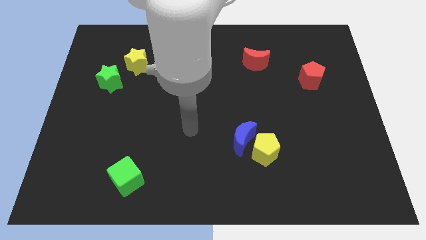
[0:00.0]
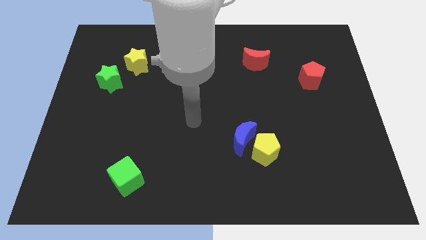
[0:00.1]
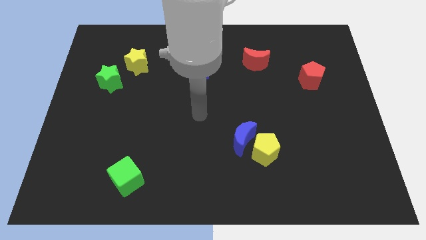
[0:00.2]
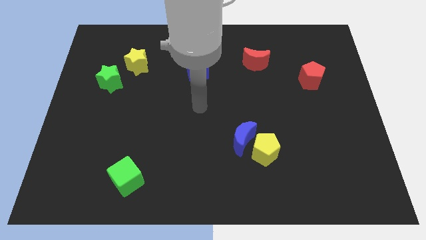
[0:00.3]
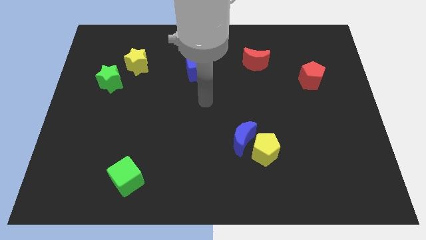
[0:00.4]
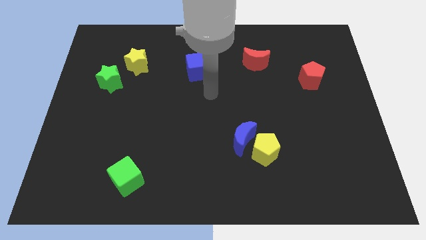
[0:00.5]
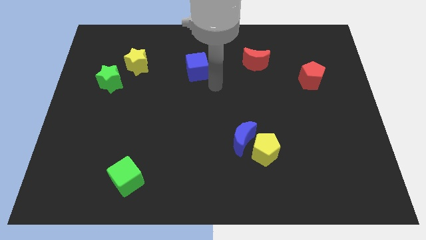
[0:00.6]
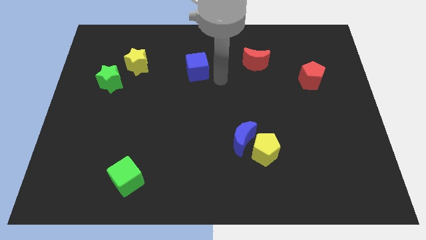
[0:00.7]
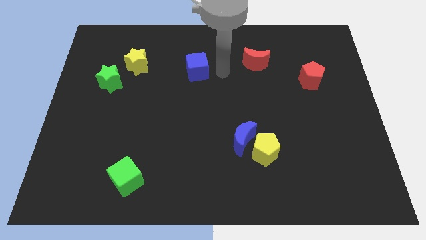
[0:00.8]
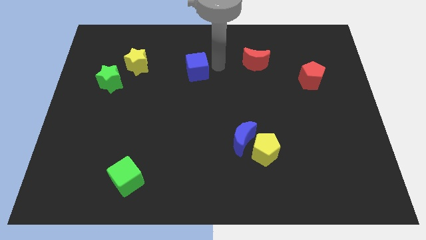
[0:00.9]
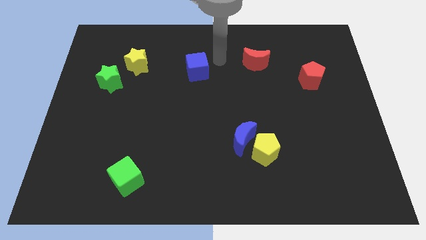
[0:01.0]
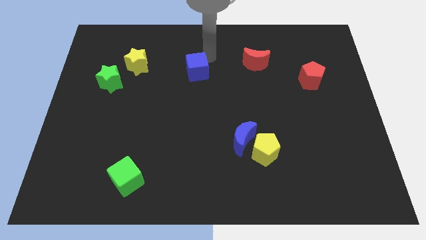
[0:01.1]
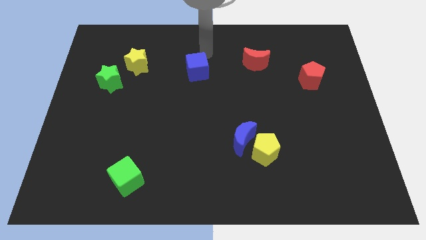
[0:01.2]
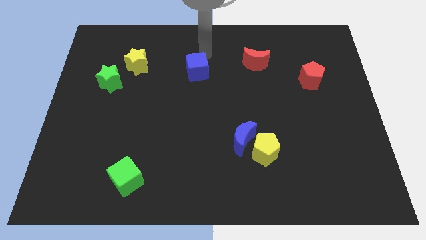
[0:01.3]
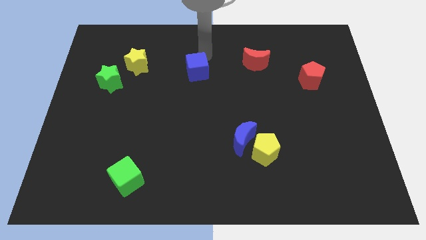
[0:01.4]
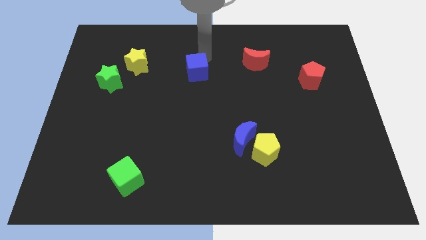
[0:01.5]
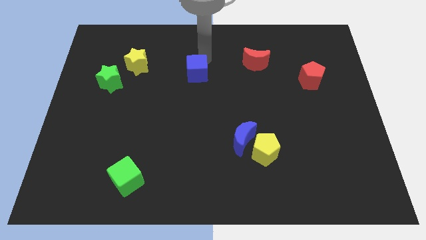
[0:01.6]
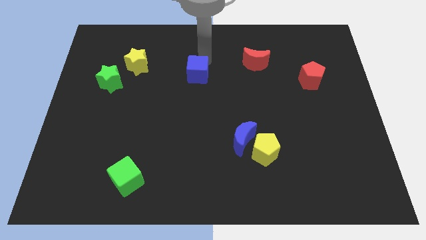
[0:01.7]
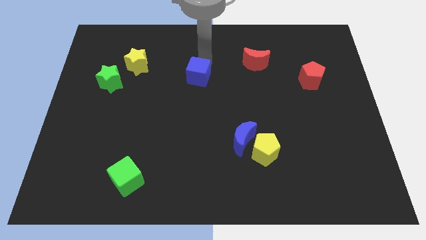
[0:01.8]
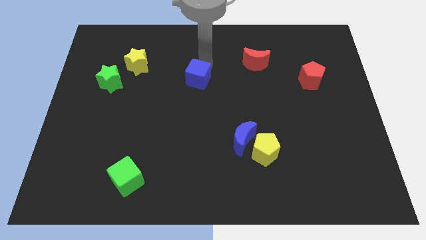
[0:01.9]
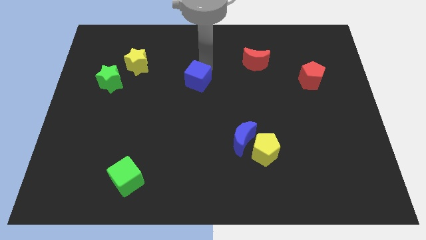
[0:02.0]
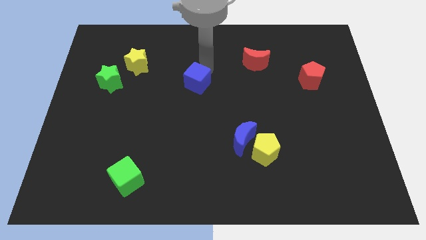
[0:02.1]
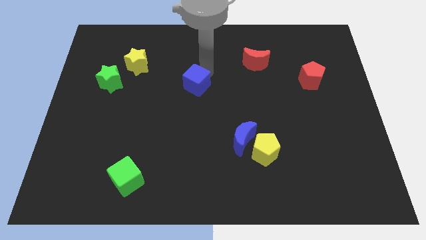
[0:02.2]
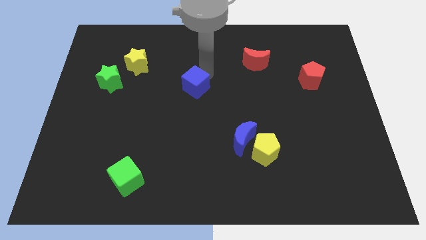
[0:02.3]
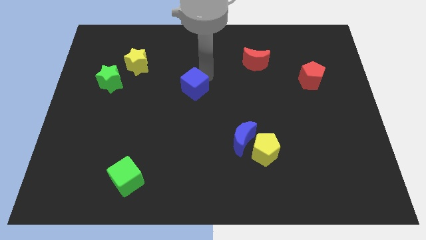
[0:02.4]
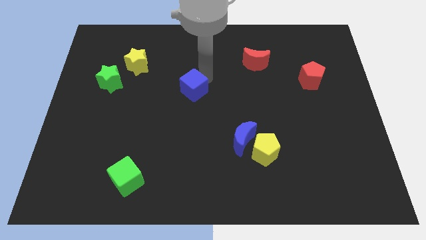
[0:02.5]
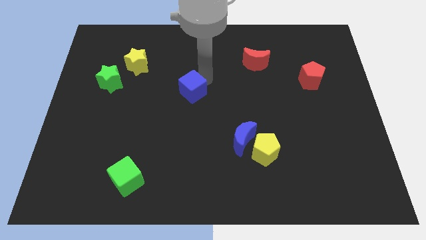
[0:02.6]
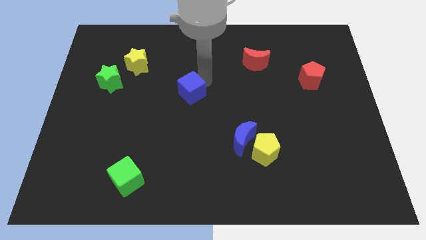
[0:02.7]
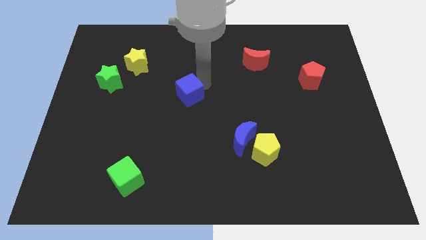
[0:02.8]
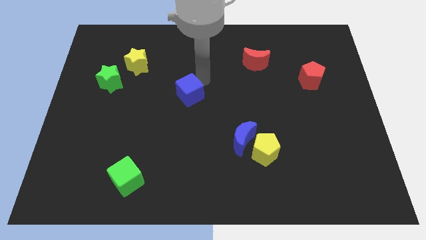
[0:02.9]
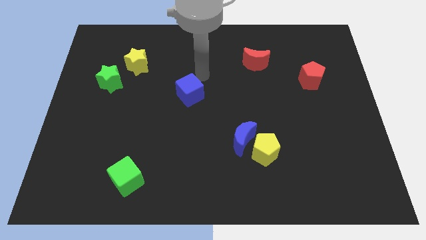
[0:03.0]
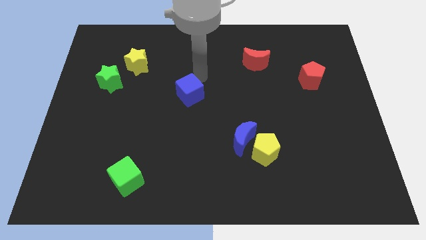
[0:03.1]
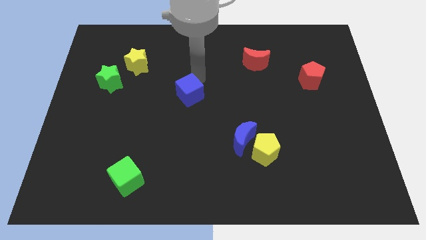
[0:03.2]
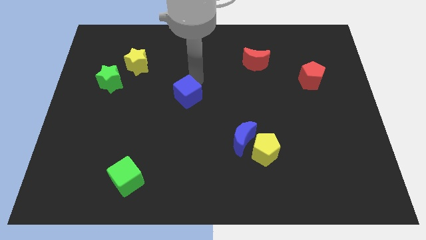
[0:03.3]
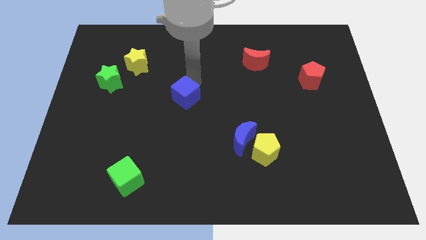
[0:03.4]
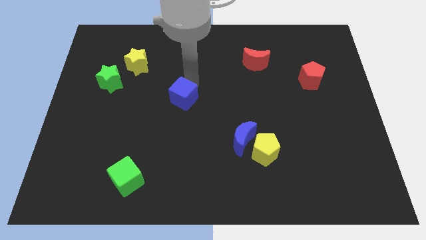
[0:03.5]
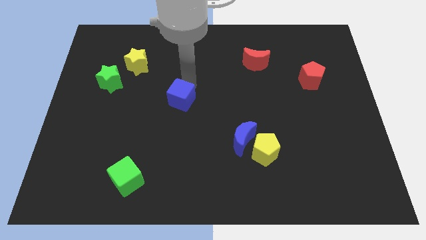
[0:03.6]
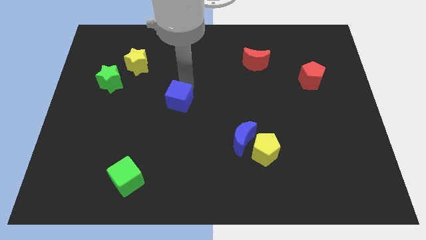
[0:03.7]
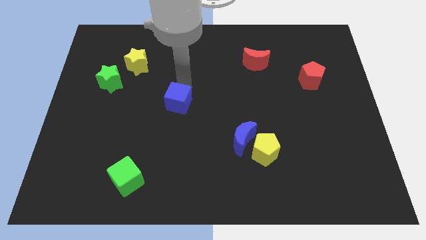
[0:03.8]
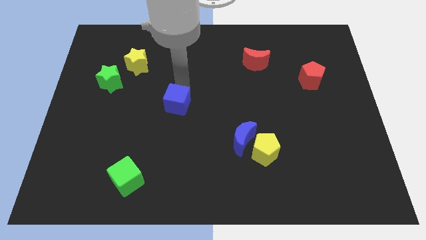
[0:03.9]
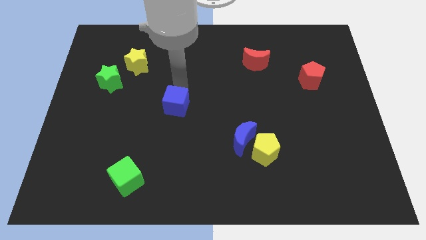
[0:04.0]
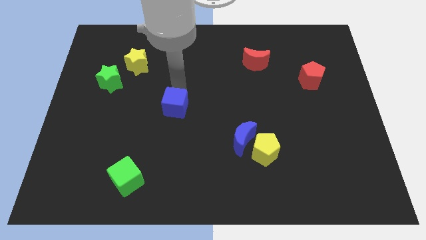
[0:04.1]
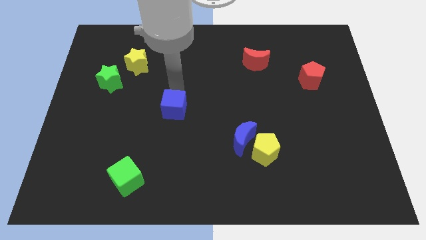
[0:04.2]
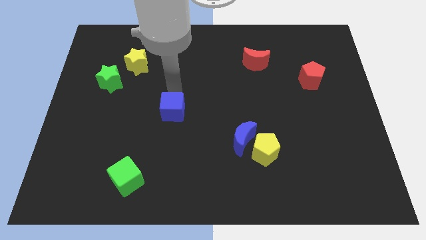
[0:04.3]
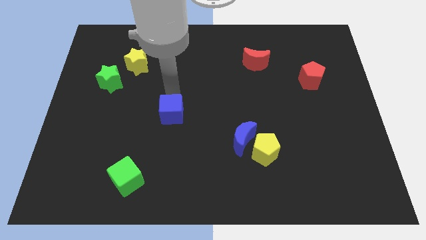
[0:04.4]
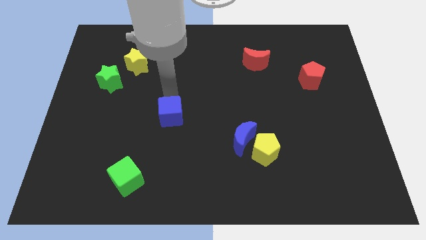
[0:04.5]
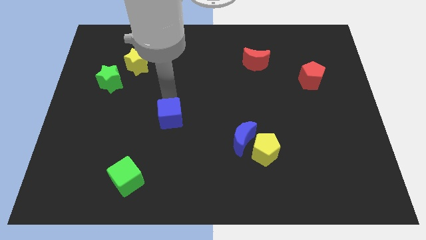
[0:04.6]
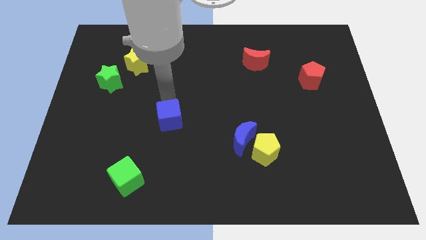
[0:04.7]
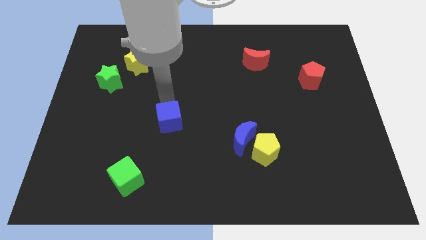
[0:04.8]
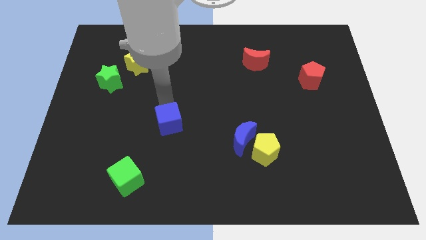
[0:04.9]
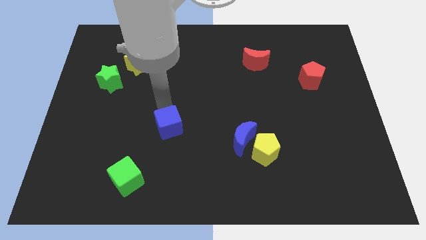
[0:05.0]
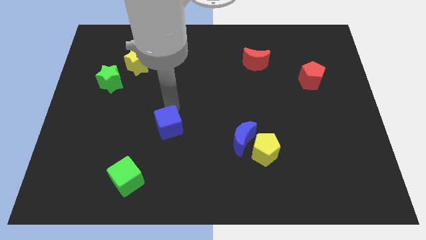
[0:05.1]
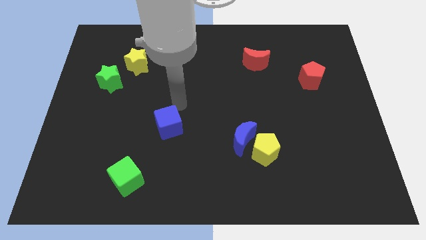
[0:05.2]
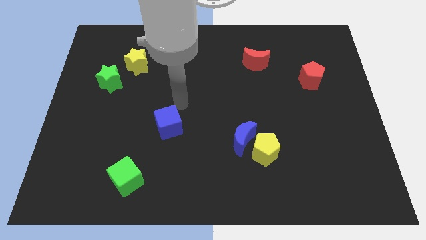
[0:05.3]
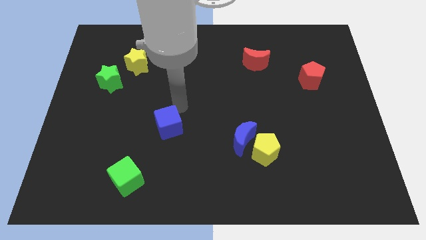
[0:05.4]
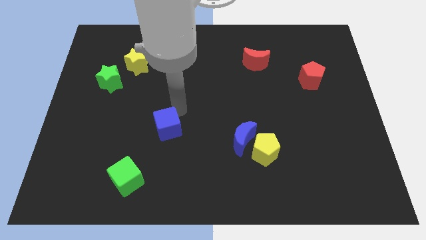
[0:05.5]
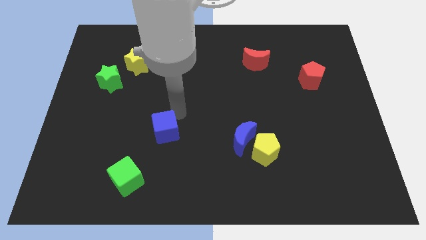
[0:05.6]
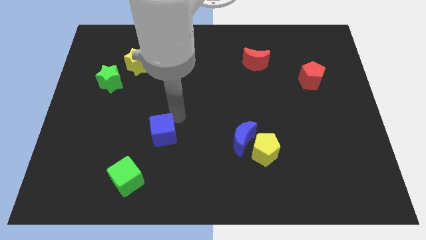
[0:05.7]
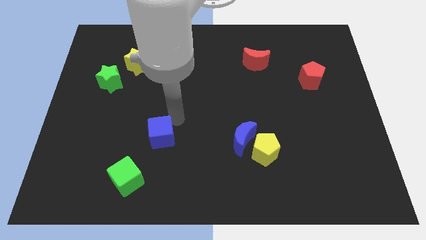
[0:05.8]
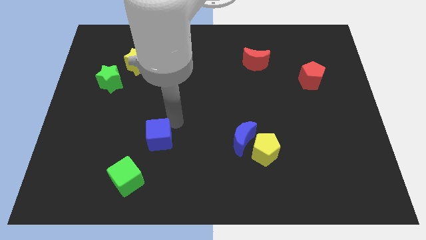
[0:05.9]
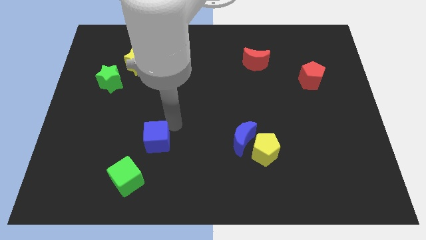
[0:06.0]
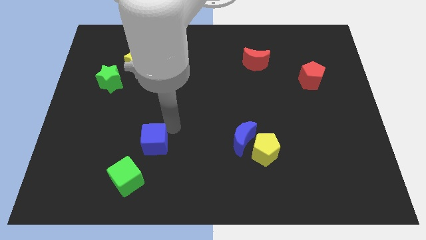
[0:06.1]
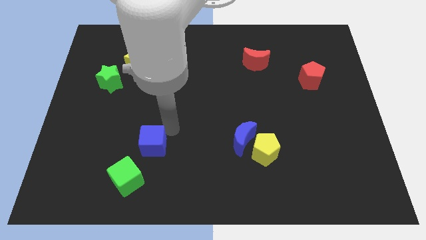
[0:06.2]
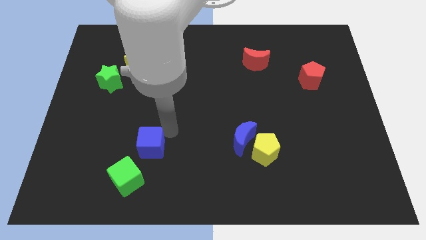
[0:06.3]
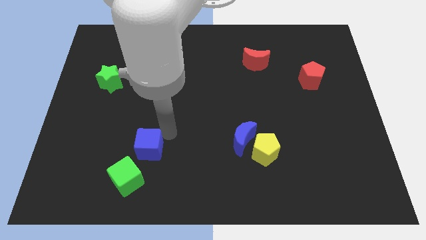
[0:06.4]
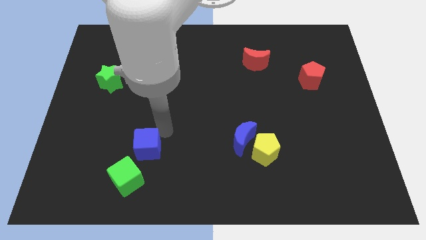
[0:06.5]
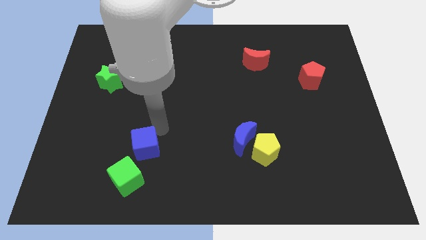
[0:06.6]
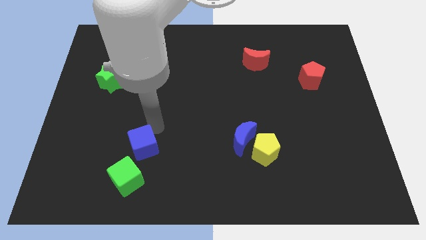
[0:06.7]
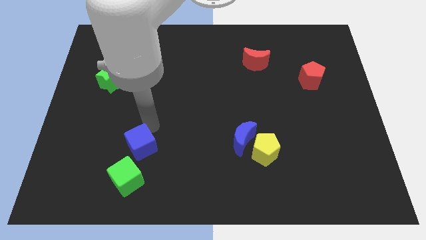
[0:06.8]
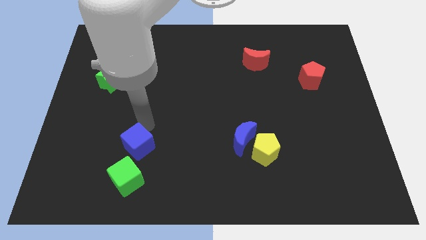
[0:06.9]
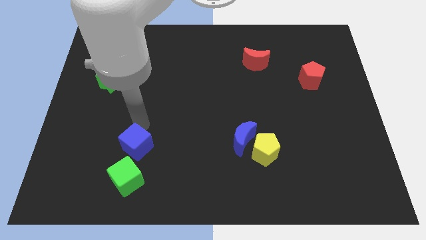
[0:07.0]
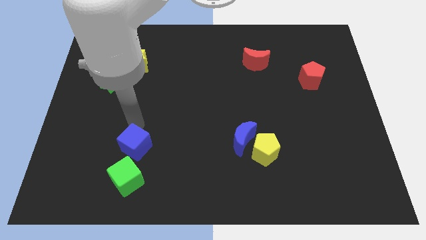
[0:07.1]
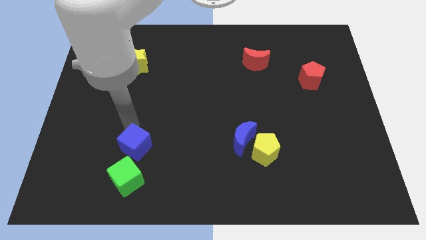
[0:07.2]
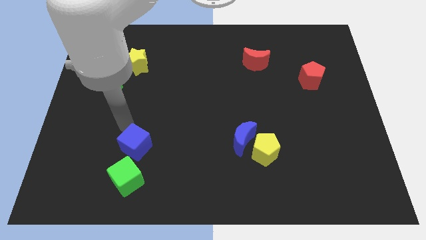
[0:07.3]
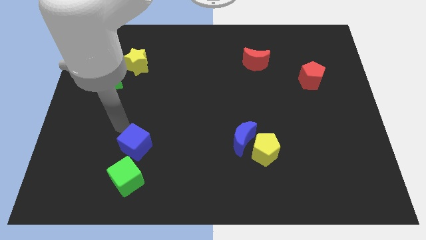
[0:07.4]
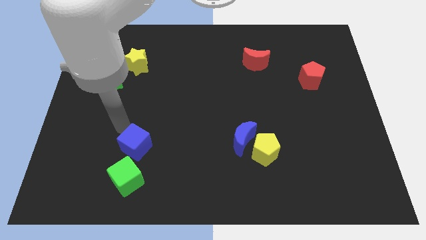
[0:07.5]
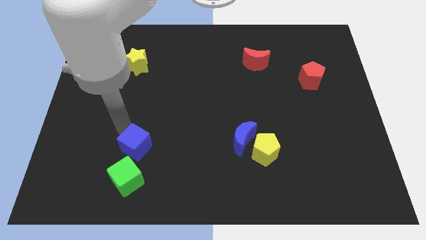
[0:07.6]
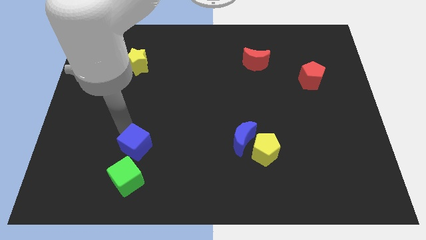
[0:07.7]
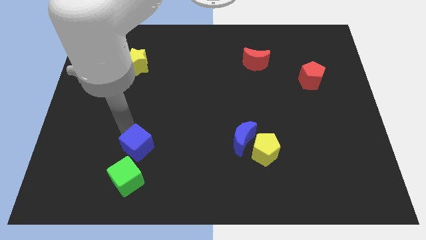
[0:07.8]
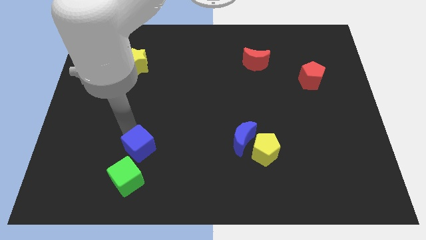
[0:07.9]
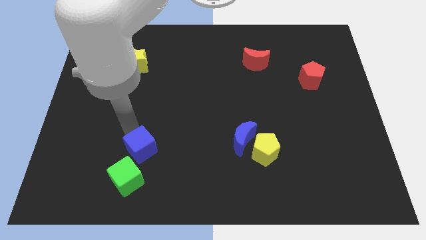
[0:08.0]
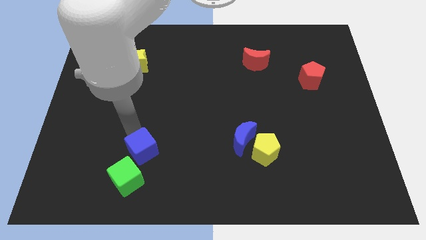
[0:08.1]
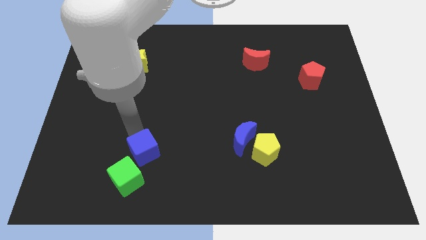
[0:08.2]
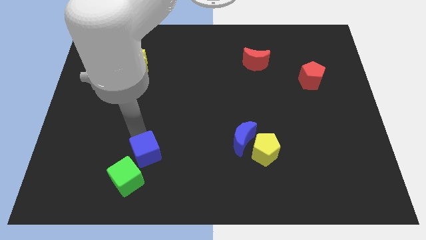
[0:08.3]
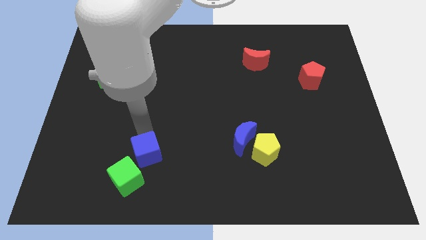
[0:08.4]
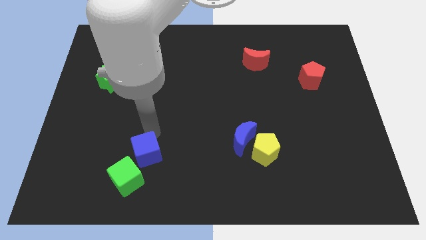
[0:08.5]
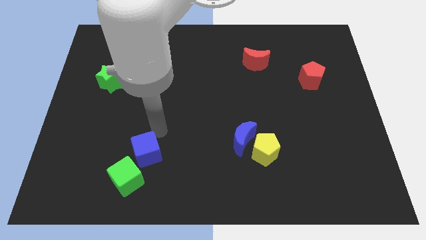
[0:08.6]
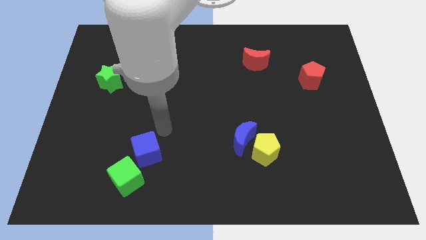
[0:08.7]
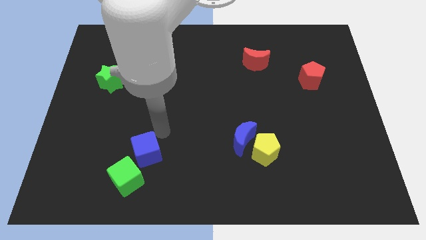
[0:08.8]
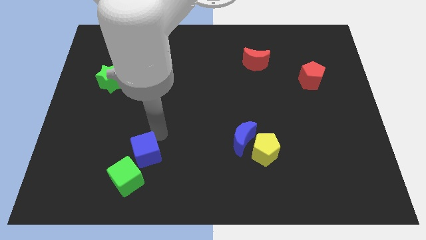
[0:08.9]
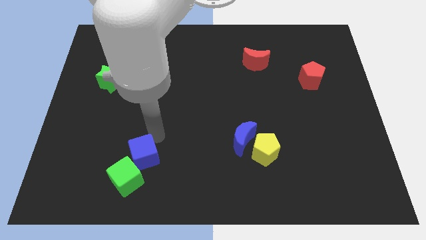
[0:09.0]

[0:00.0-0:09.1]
put the blue cube to the green cube
